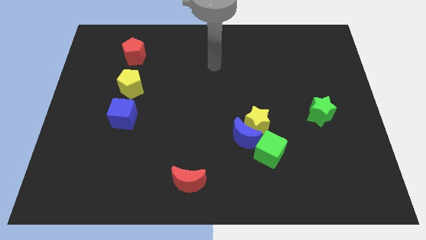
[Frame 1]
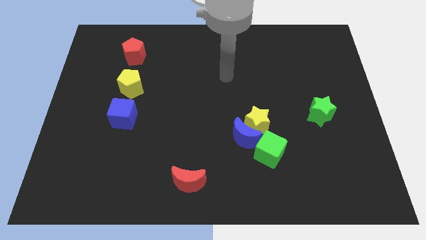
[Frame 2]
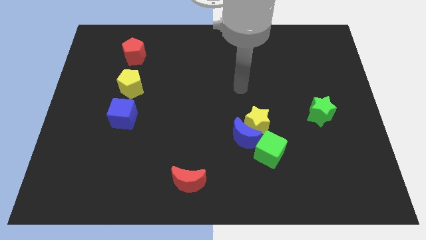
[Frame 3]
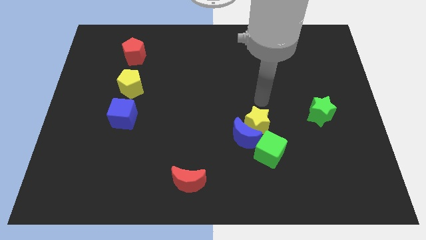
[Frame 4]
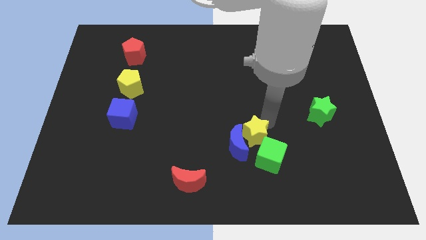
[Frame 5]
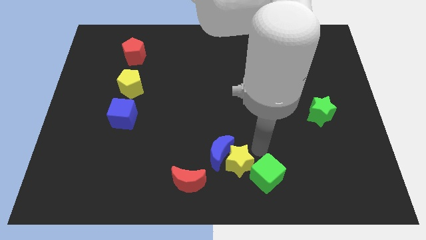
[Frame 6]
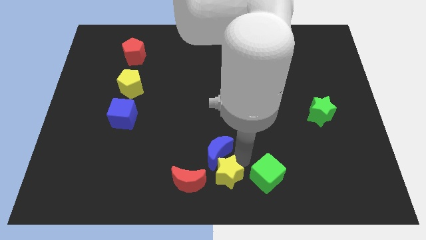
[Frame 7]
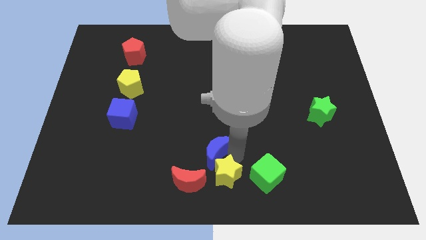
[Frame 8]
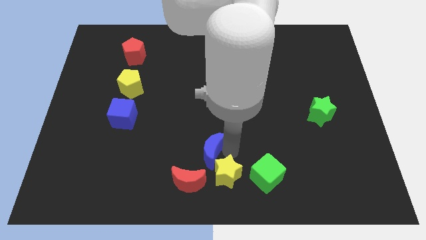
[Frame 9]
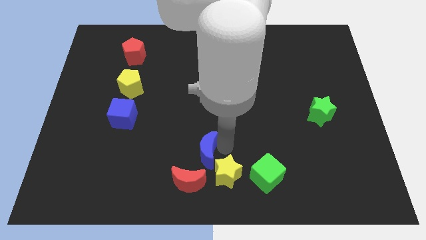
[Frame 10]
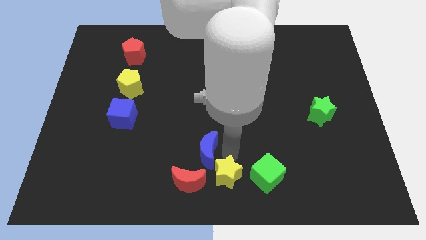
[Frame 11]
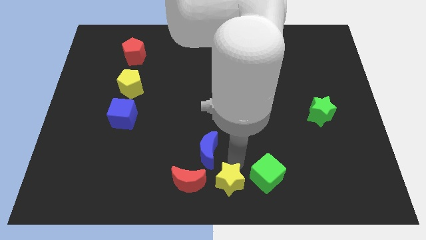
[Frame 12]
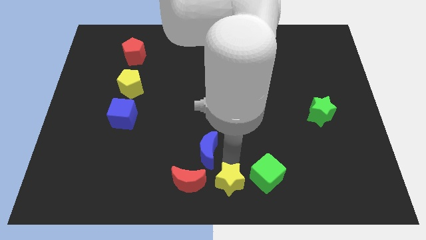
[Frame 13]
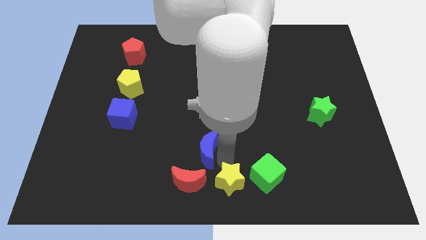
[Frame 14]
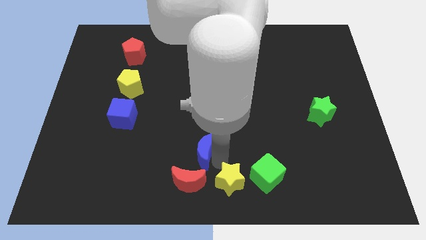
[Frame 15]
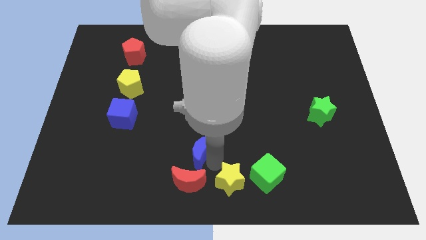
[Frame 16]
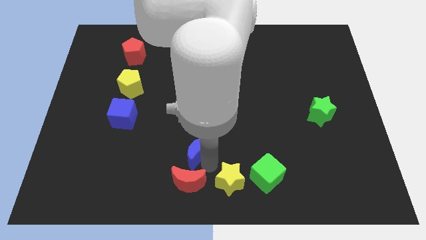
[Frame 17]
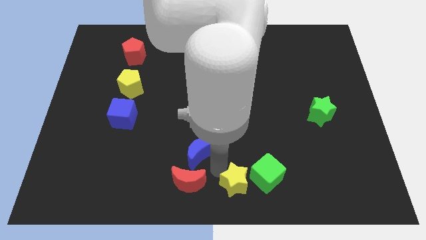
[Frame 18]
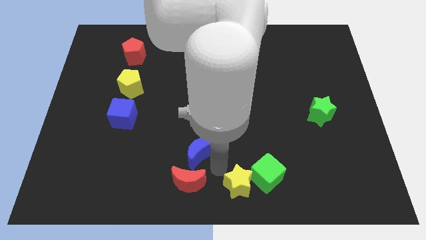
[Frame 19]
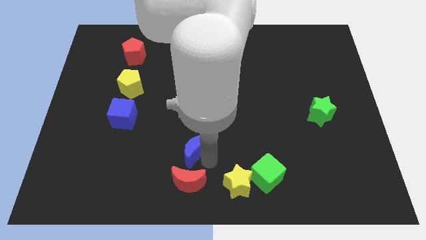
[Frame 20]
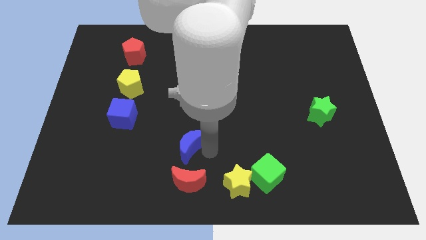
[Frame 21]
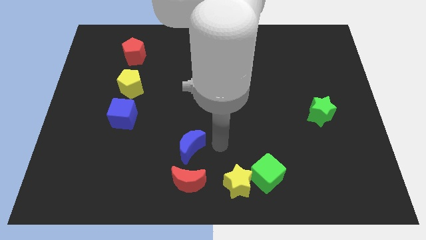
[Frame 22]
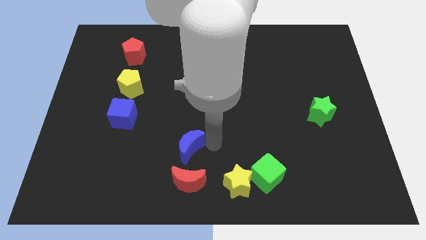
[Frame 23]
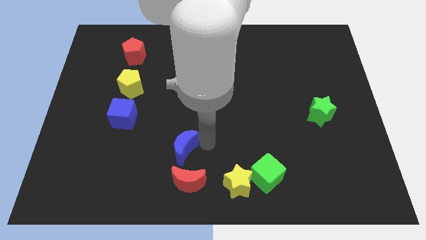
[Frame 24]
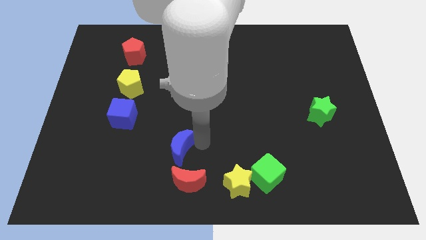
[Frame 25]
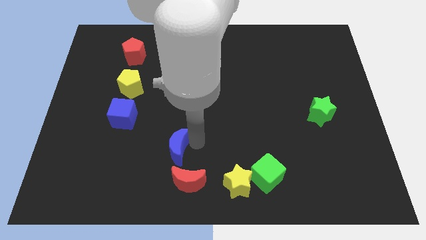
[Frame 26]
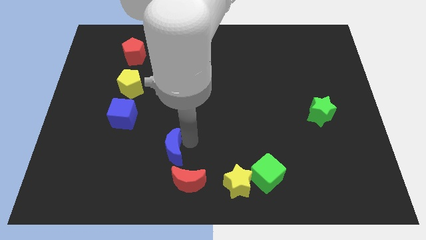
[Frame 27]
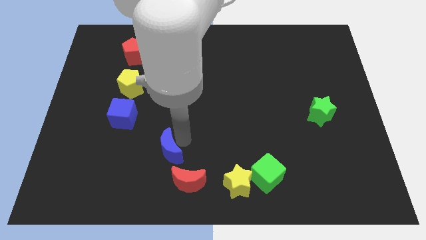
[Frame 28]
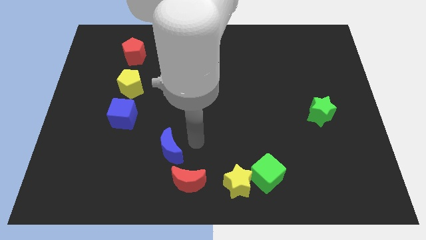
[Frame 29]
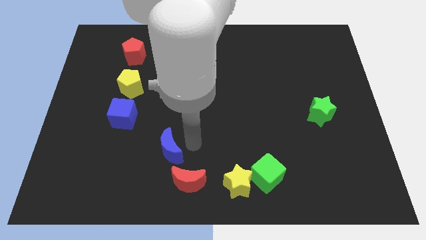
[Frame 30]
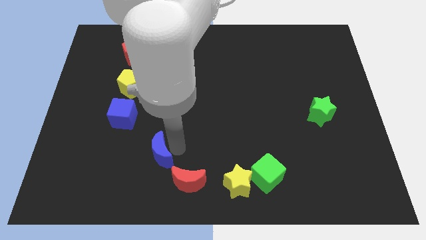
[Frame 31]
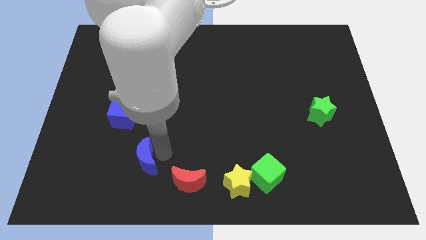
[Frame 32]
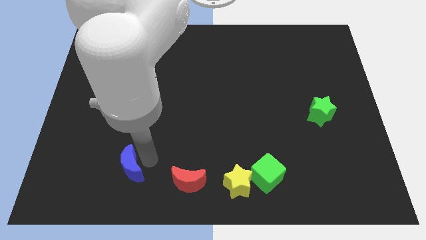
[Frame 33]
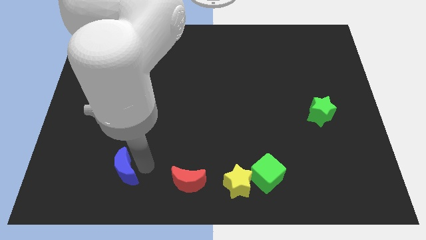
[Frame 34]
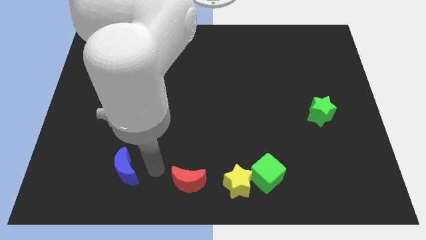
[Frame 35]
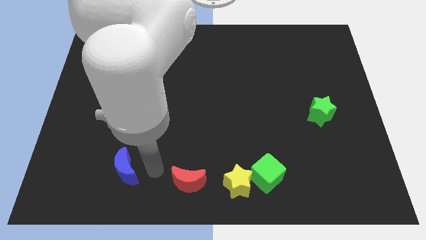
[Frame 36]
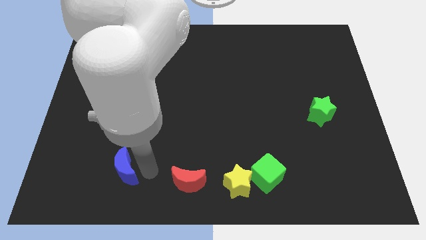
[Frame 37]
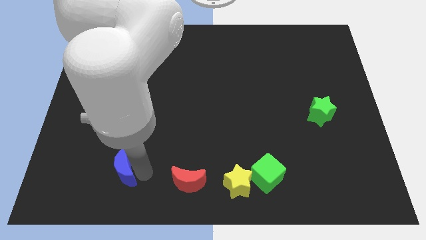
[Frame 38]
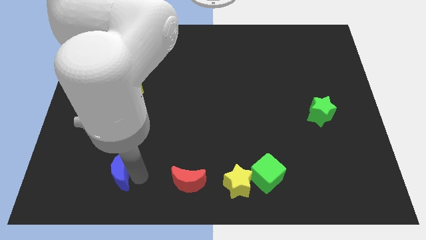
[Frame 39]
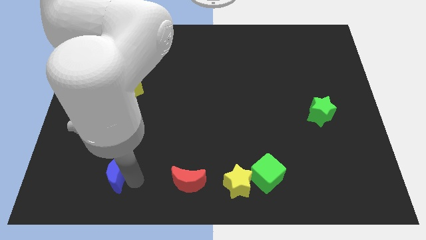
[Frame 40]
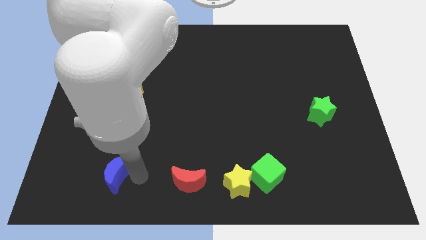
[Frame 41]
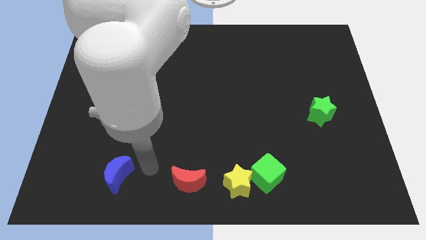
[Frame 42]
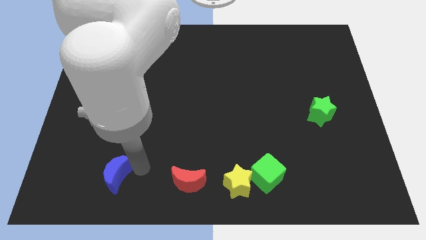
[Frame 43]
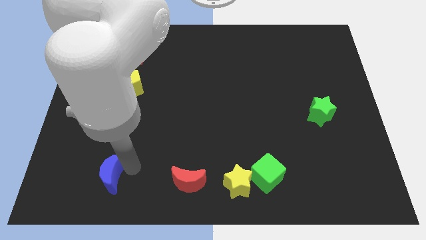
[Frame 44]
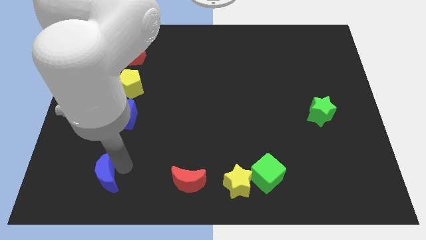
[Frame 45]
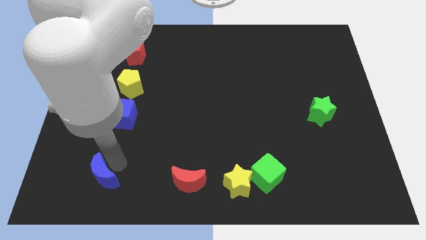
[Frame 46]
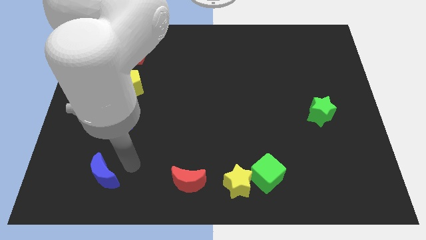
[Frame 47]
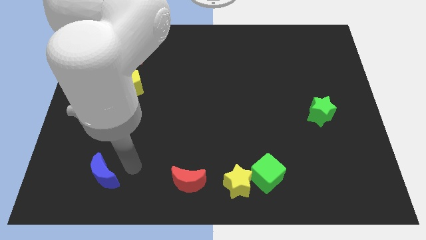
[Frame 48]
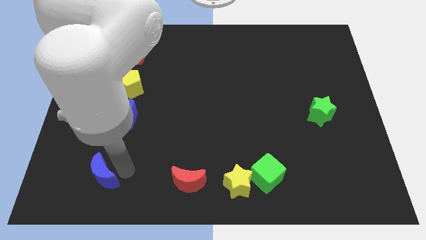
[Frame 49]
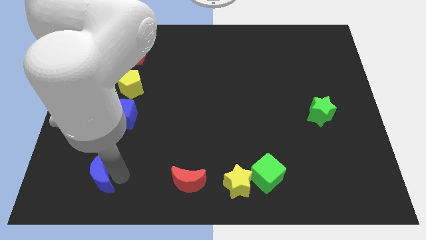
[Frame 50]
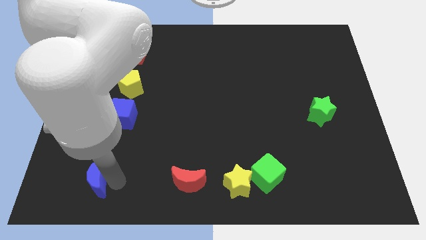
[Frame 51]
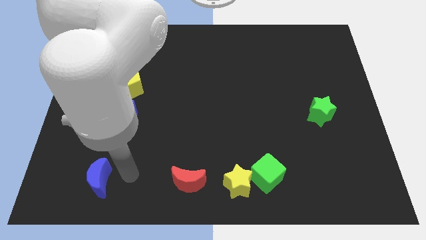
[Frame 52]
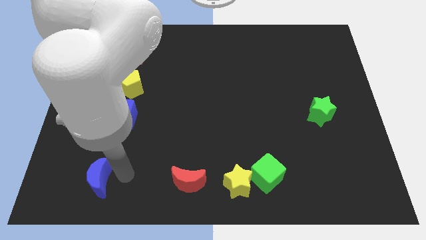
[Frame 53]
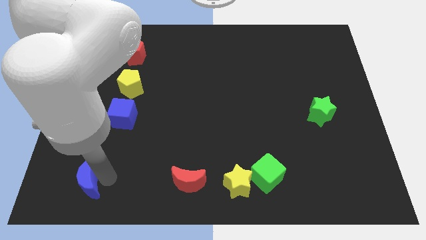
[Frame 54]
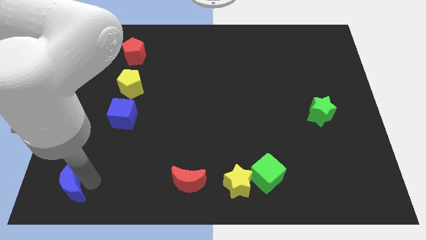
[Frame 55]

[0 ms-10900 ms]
slide the blue moon to the bottom left of the board
